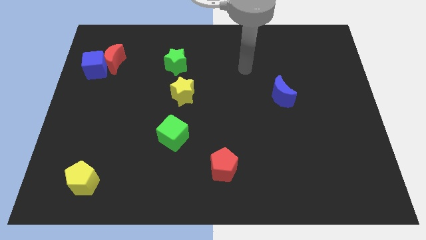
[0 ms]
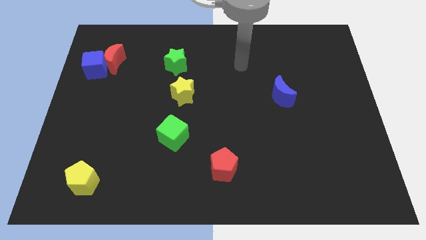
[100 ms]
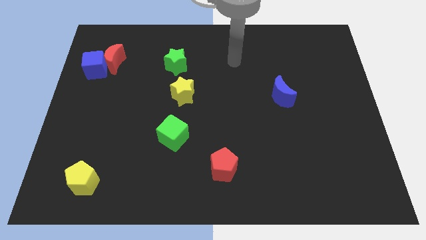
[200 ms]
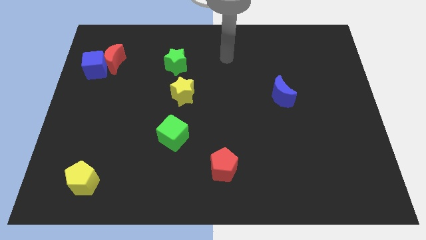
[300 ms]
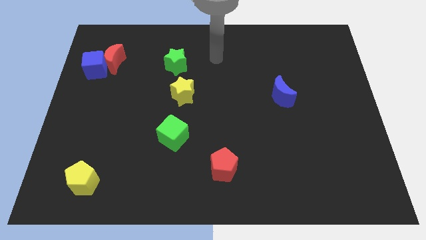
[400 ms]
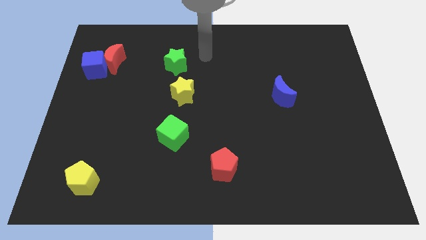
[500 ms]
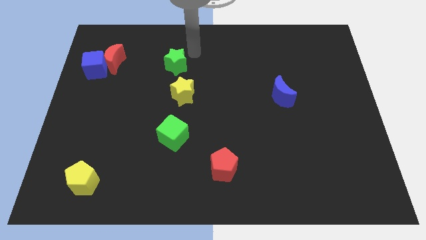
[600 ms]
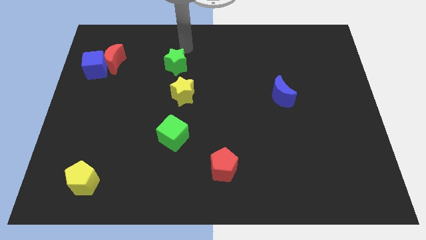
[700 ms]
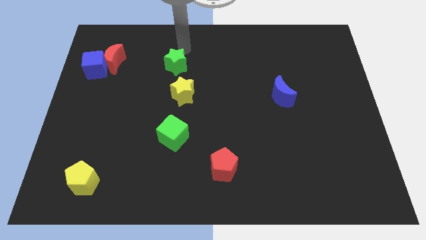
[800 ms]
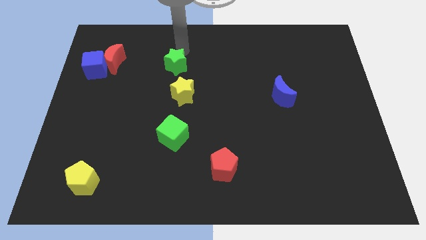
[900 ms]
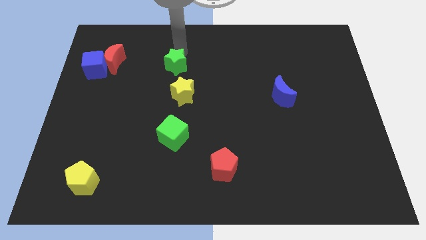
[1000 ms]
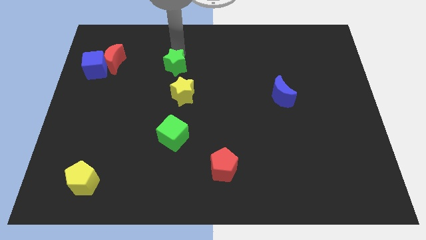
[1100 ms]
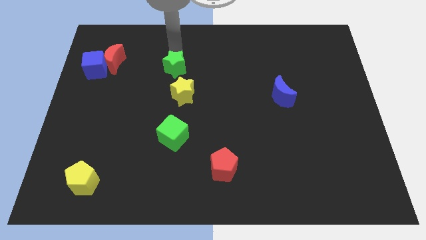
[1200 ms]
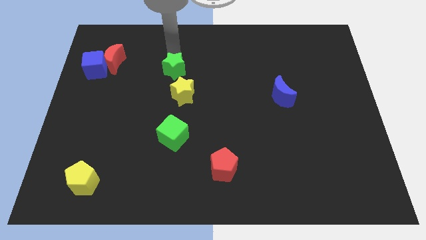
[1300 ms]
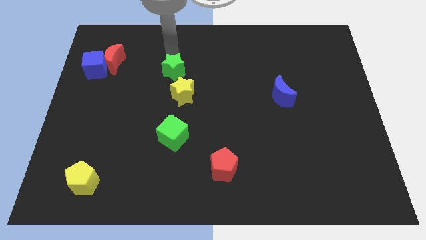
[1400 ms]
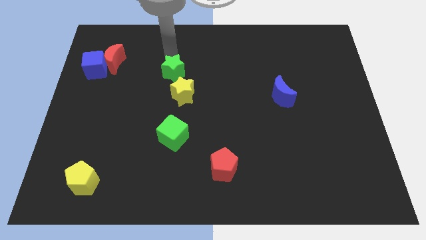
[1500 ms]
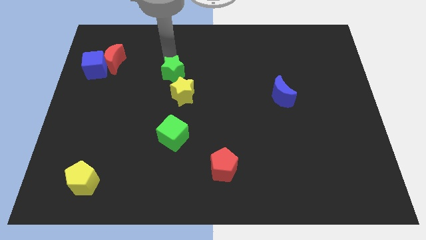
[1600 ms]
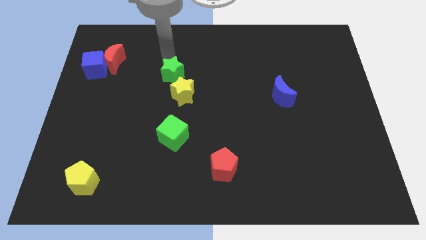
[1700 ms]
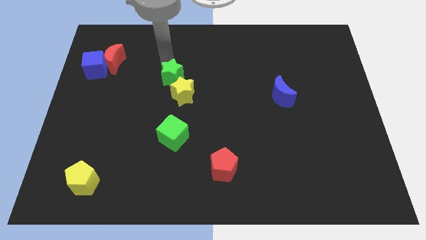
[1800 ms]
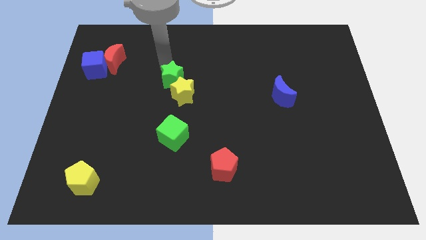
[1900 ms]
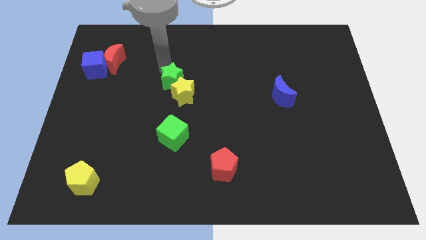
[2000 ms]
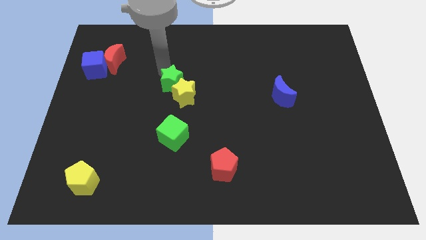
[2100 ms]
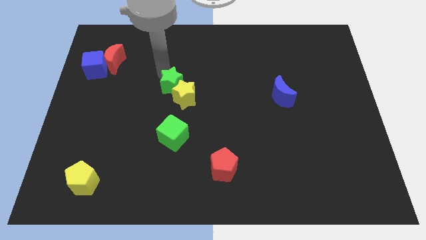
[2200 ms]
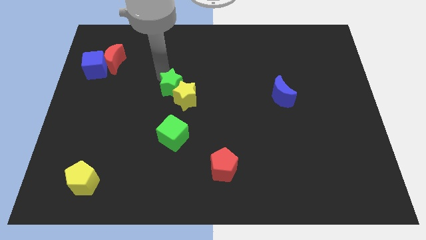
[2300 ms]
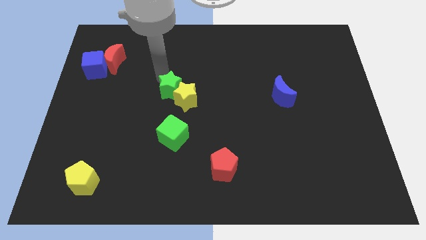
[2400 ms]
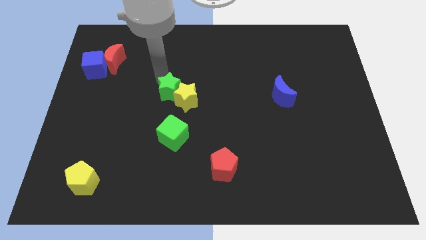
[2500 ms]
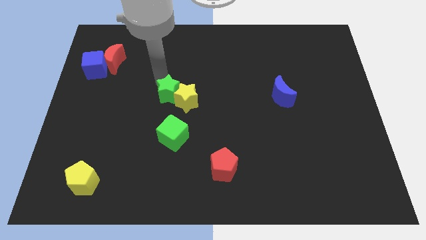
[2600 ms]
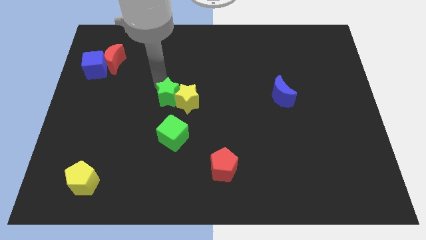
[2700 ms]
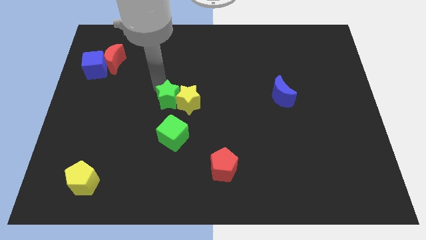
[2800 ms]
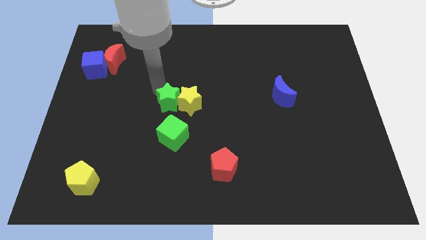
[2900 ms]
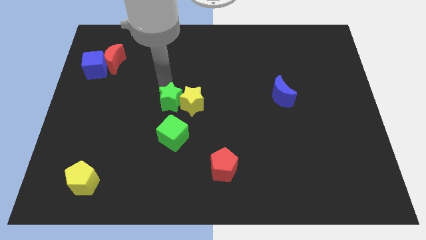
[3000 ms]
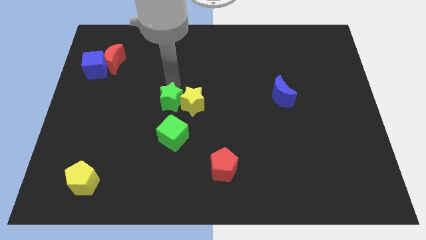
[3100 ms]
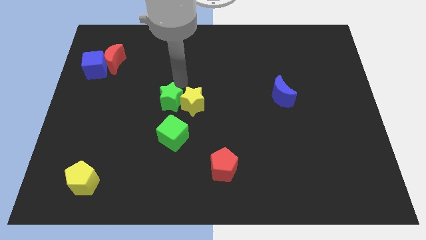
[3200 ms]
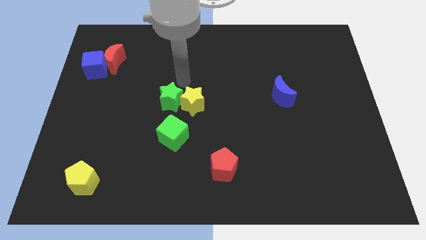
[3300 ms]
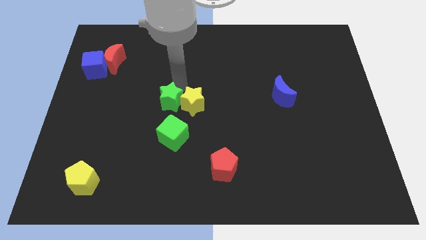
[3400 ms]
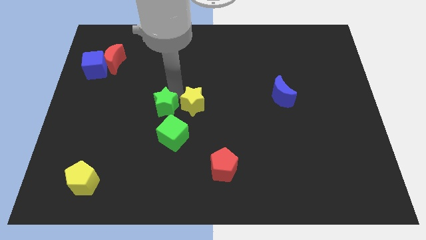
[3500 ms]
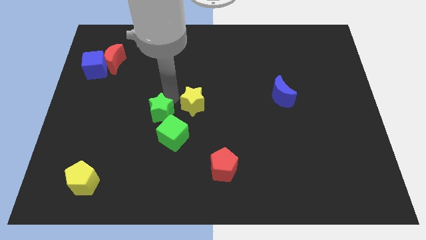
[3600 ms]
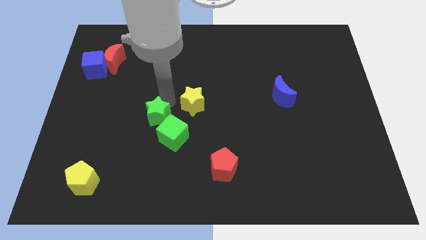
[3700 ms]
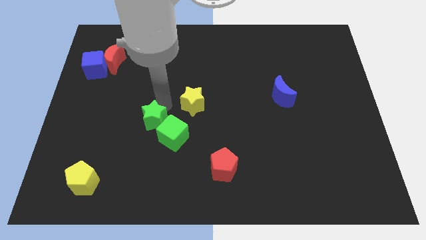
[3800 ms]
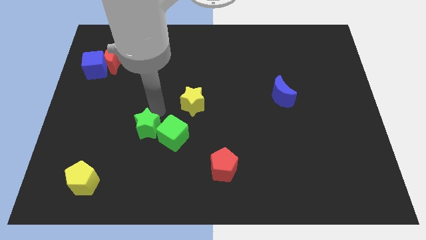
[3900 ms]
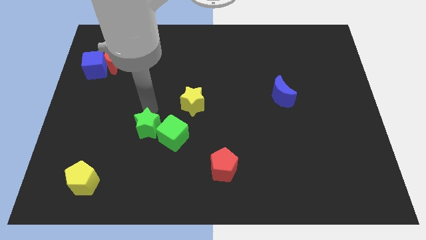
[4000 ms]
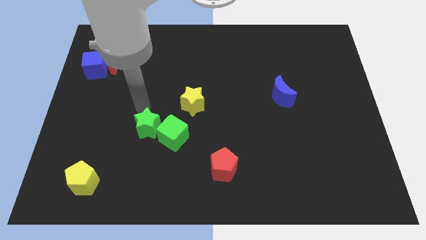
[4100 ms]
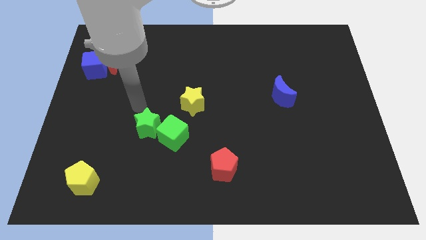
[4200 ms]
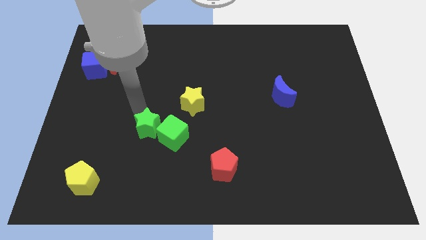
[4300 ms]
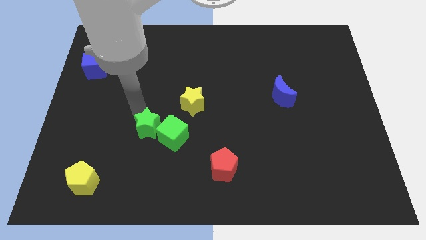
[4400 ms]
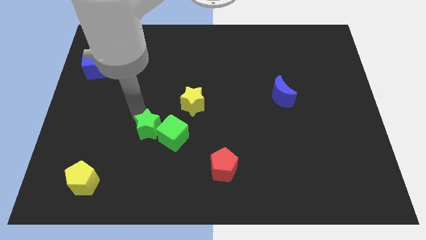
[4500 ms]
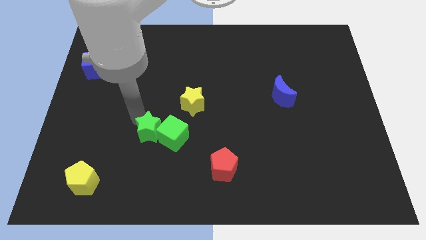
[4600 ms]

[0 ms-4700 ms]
push the green star down

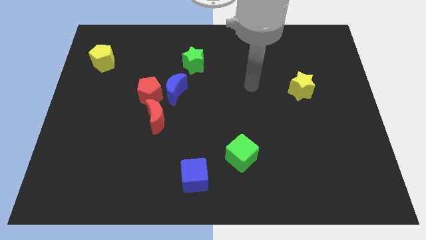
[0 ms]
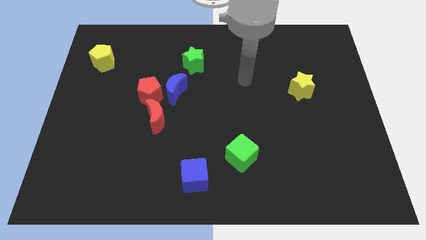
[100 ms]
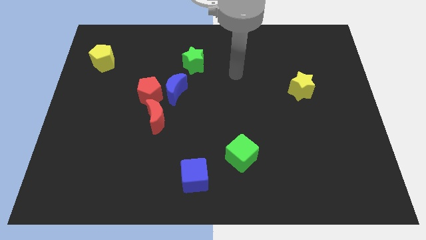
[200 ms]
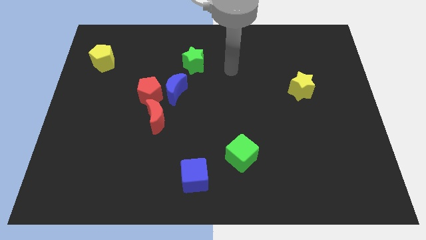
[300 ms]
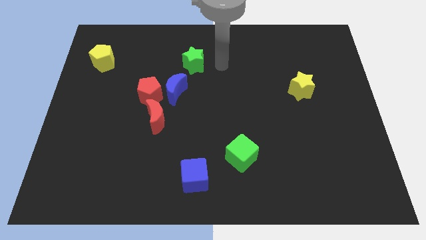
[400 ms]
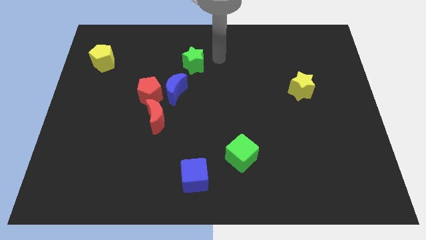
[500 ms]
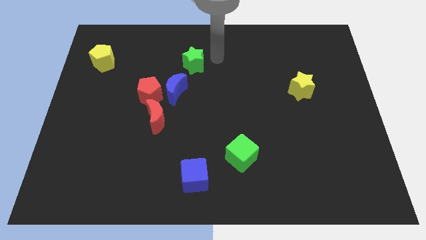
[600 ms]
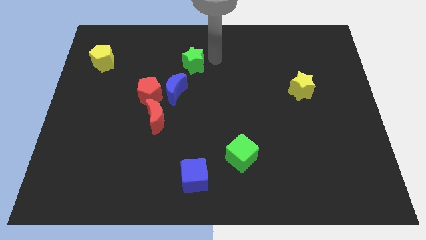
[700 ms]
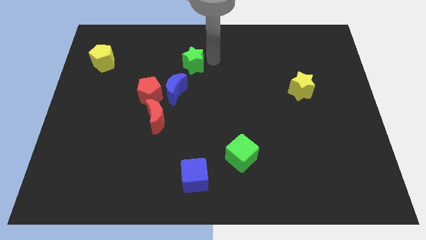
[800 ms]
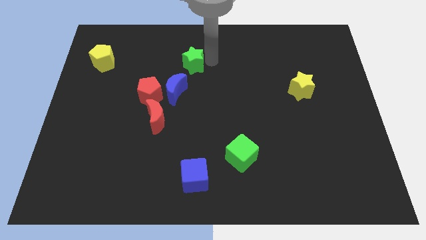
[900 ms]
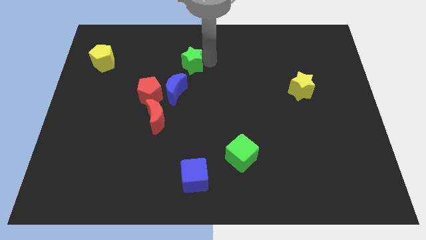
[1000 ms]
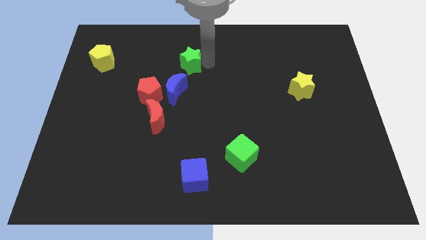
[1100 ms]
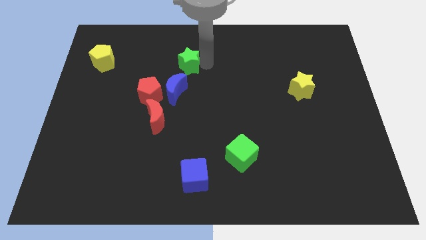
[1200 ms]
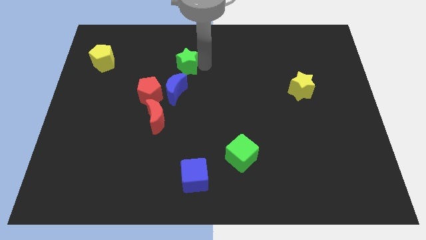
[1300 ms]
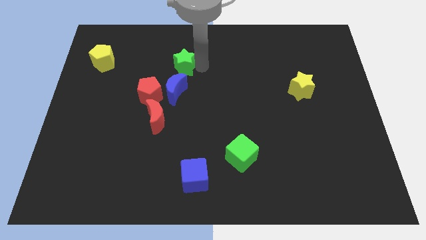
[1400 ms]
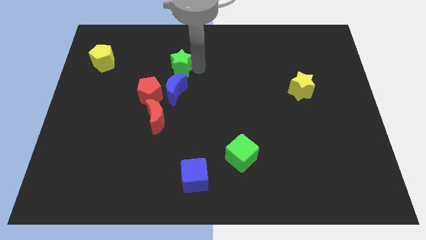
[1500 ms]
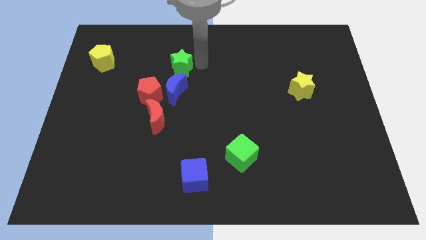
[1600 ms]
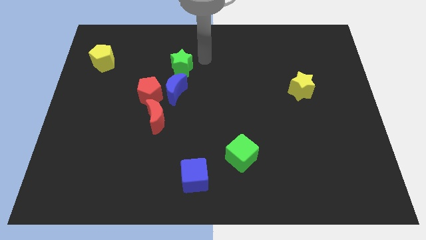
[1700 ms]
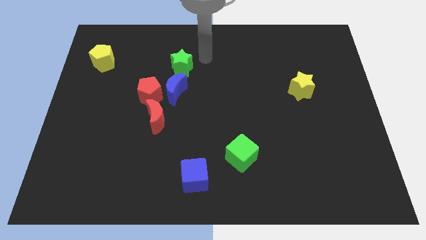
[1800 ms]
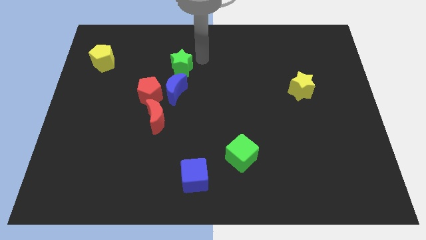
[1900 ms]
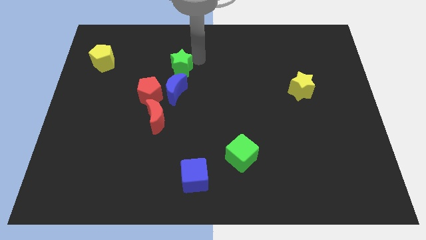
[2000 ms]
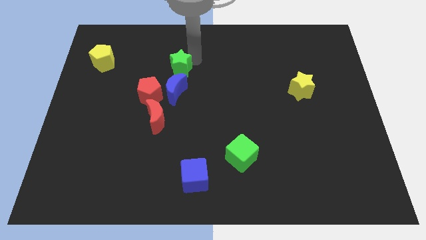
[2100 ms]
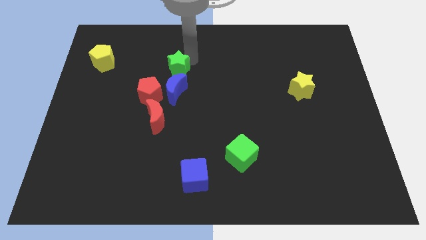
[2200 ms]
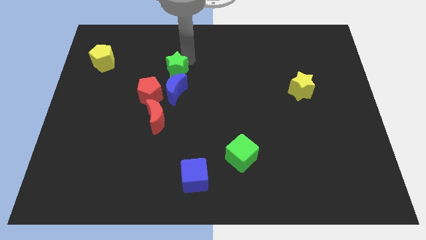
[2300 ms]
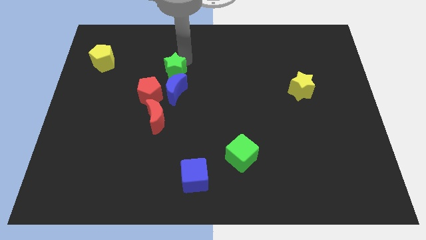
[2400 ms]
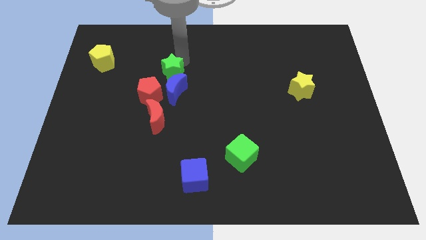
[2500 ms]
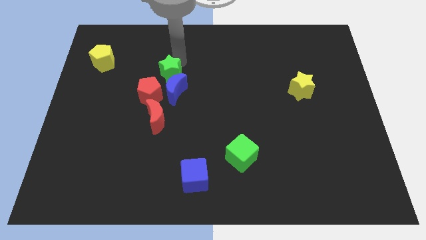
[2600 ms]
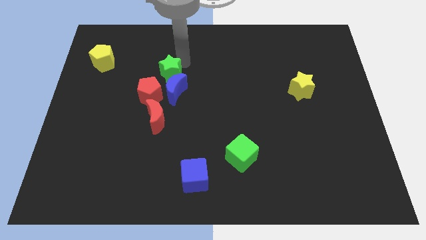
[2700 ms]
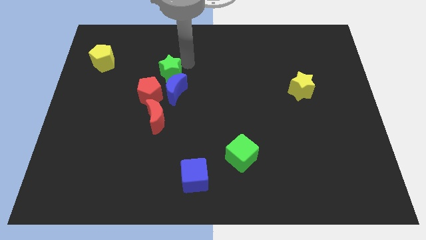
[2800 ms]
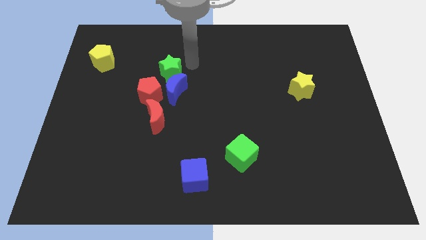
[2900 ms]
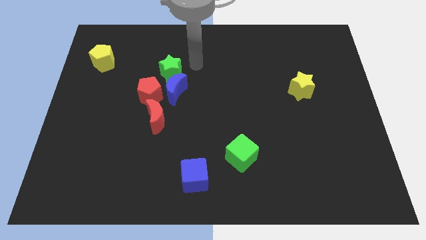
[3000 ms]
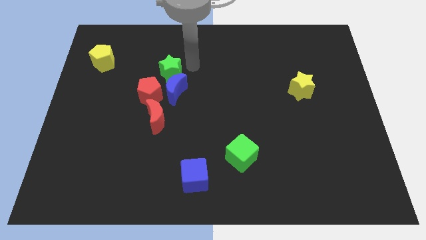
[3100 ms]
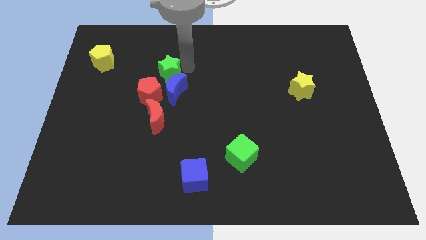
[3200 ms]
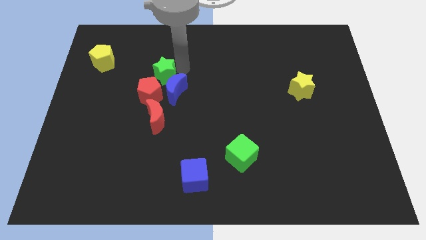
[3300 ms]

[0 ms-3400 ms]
slide the green star downwards and left diagonally a little bit

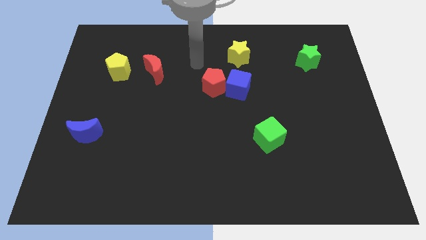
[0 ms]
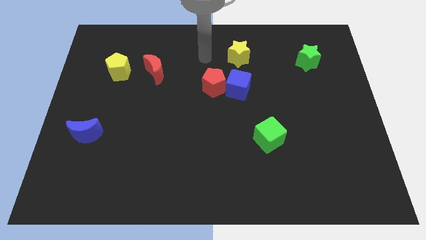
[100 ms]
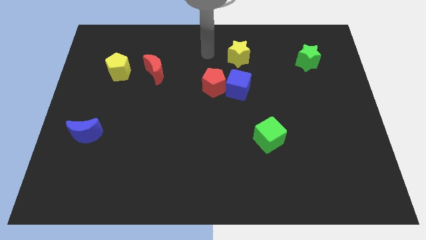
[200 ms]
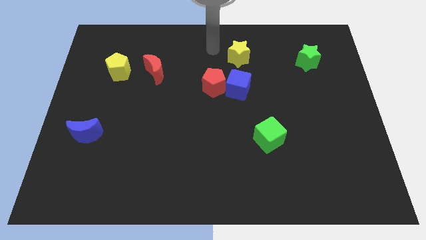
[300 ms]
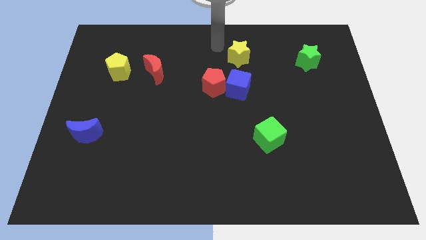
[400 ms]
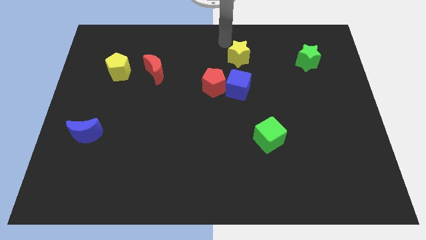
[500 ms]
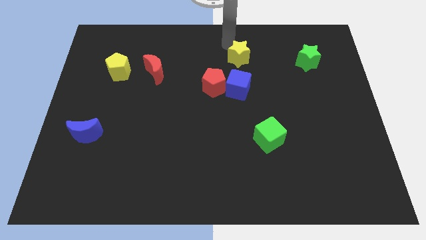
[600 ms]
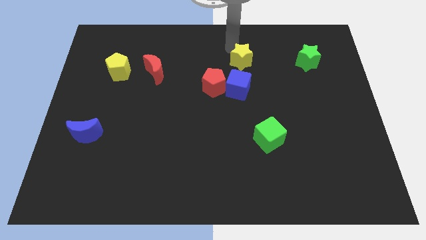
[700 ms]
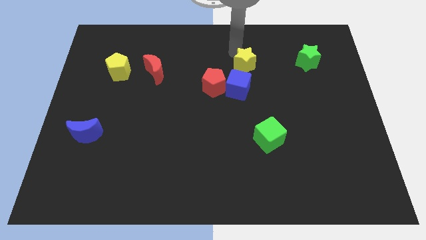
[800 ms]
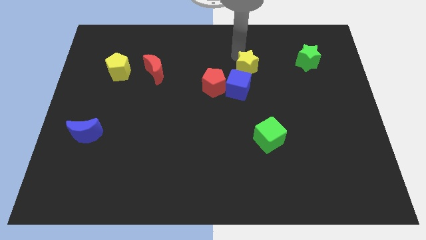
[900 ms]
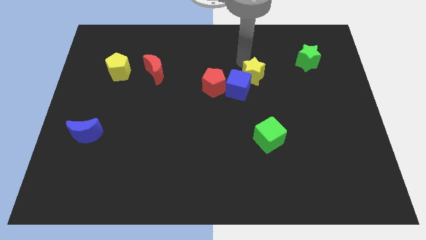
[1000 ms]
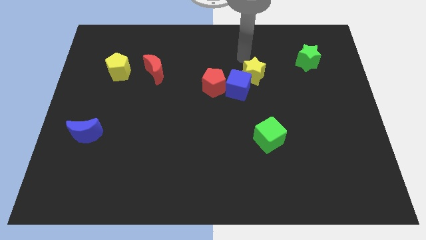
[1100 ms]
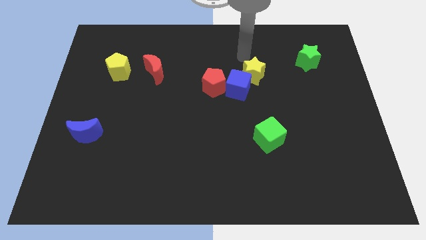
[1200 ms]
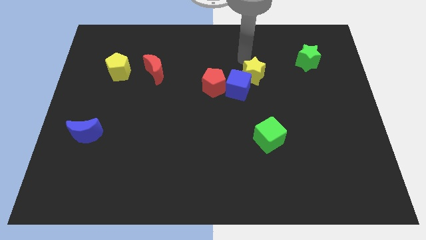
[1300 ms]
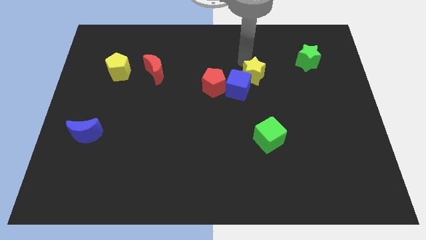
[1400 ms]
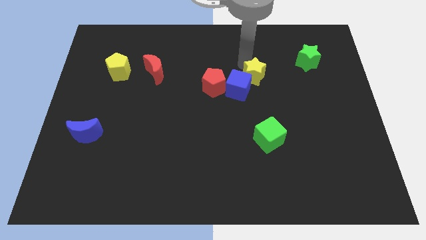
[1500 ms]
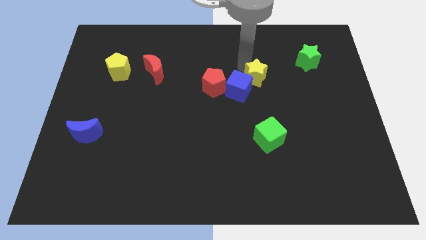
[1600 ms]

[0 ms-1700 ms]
push the yellow star down a bit
